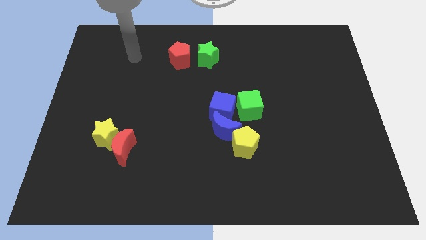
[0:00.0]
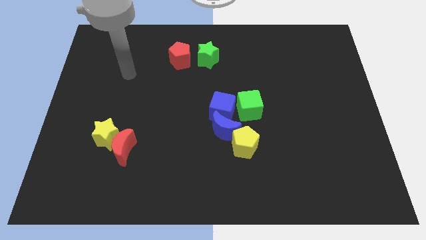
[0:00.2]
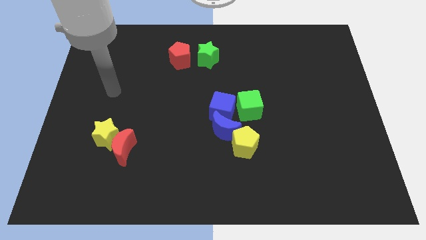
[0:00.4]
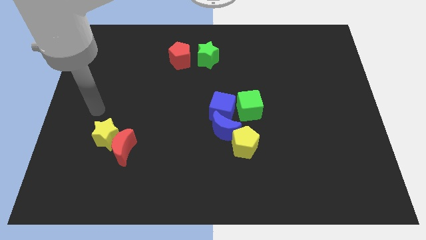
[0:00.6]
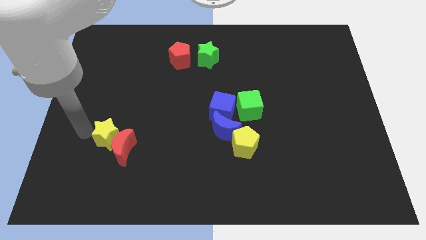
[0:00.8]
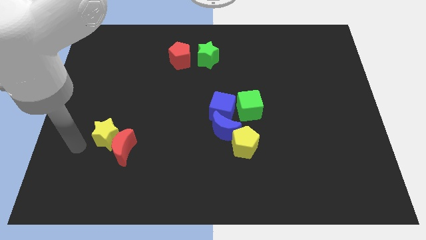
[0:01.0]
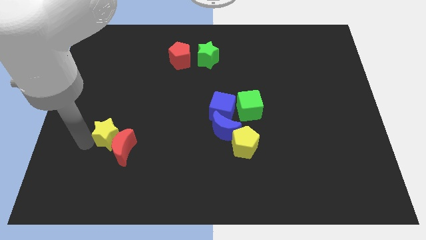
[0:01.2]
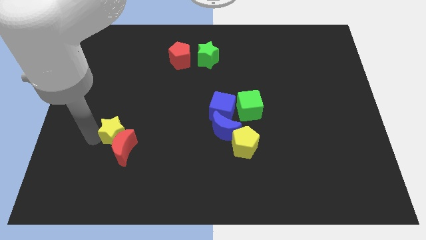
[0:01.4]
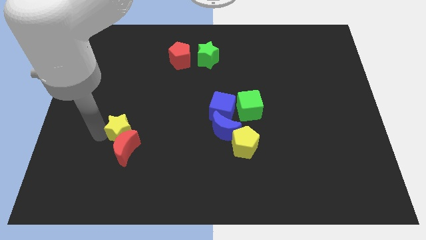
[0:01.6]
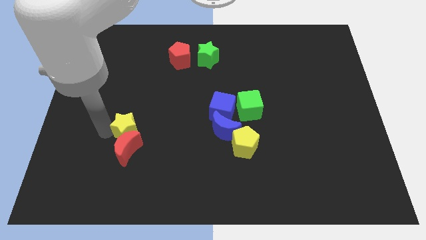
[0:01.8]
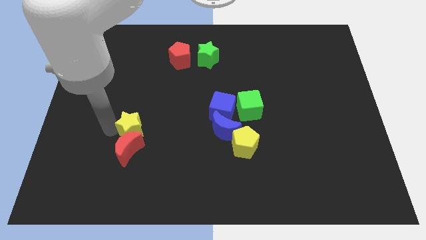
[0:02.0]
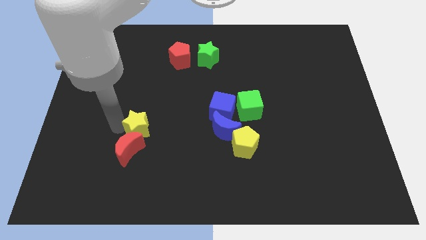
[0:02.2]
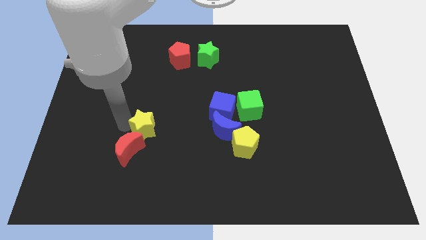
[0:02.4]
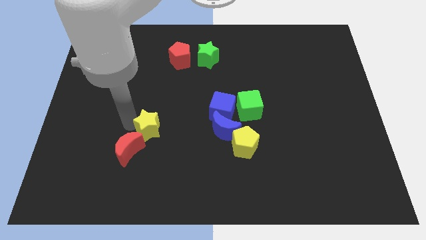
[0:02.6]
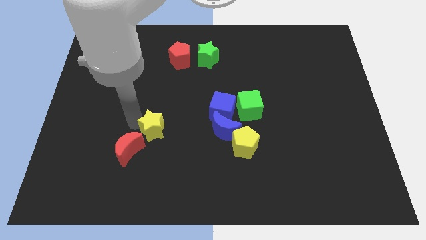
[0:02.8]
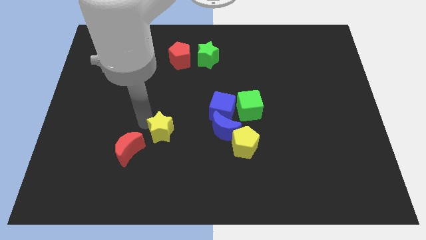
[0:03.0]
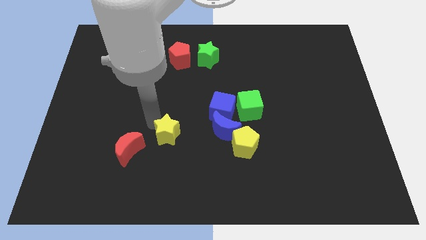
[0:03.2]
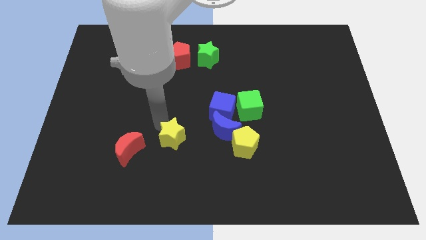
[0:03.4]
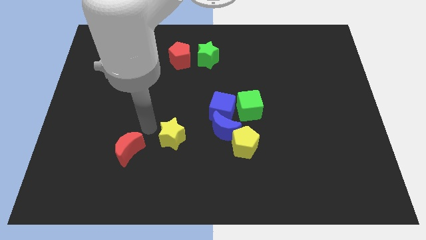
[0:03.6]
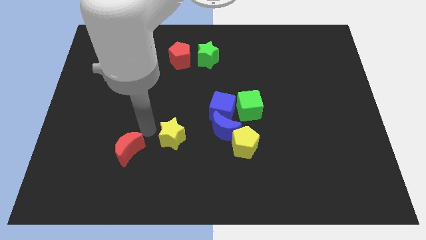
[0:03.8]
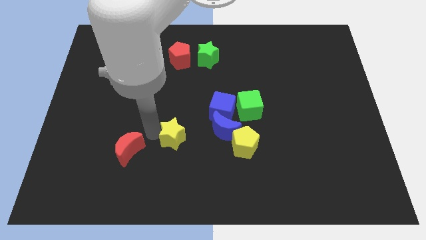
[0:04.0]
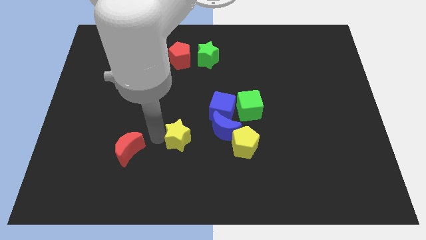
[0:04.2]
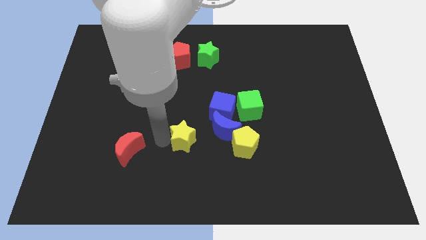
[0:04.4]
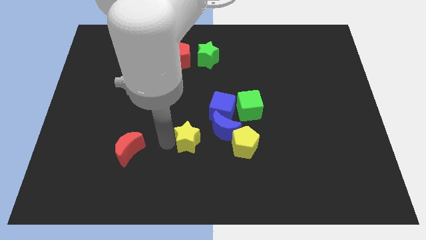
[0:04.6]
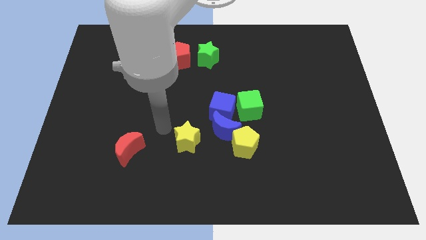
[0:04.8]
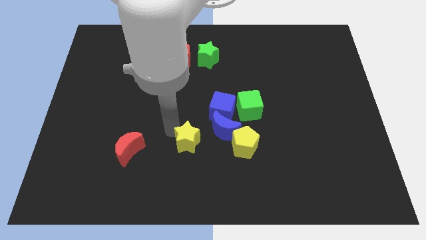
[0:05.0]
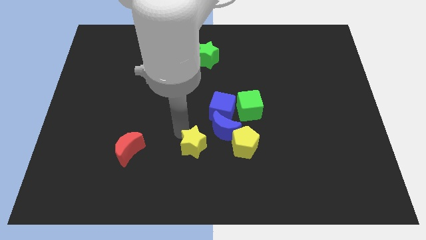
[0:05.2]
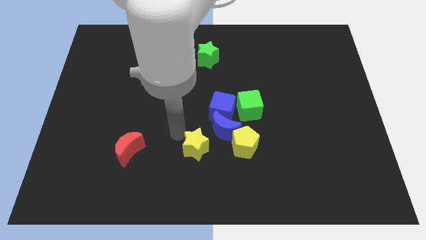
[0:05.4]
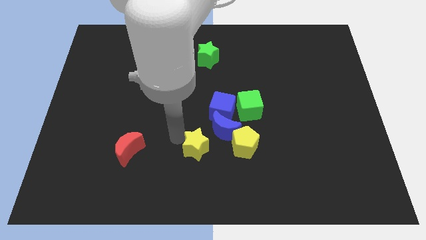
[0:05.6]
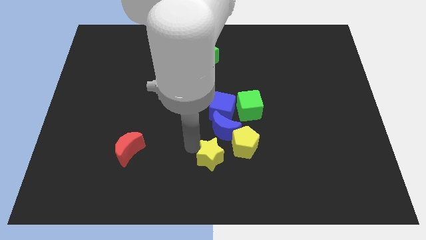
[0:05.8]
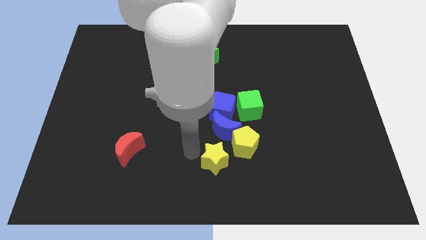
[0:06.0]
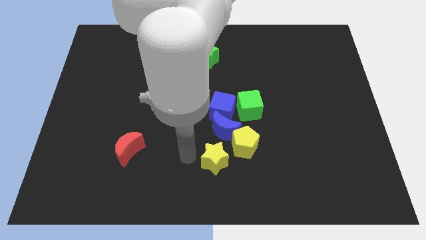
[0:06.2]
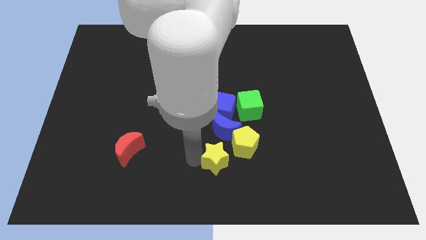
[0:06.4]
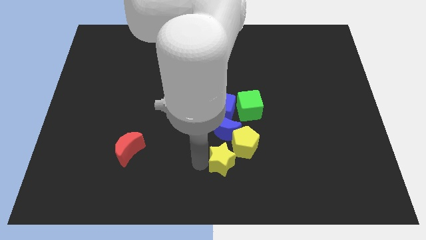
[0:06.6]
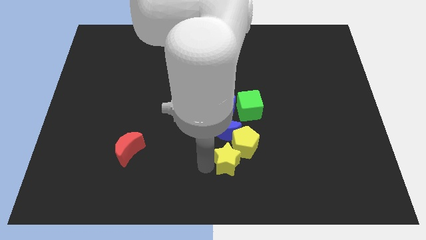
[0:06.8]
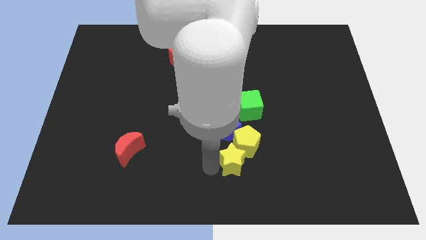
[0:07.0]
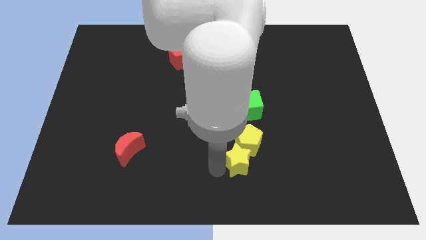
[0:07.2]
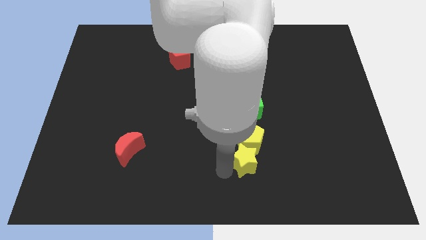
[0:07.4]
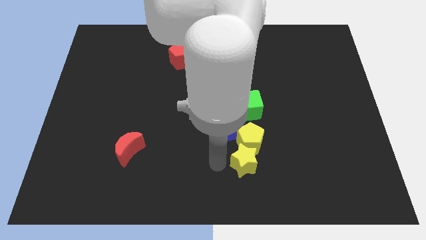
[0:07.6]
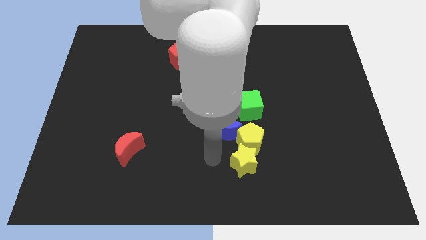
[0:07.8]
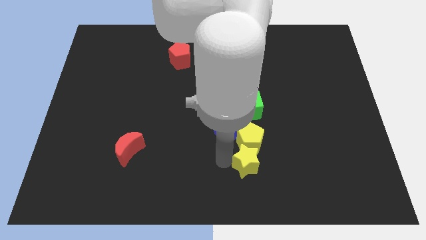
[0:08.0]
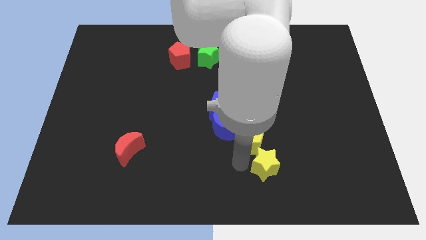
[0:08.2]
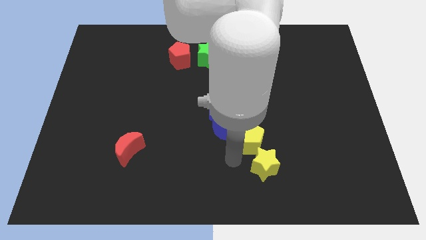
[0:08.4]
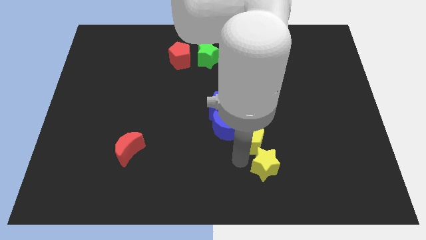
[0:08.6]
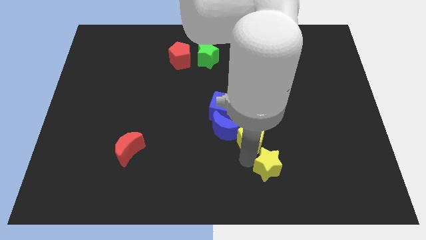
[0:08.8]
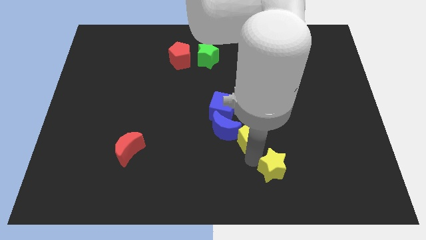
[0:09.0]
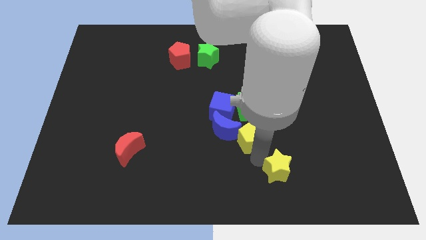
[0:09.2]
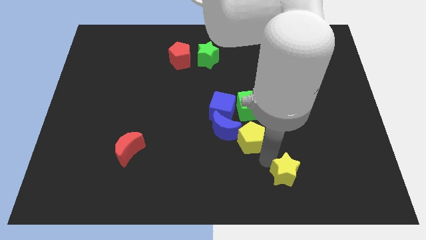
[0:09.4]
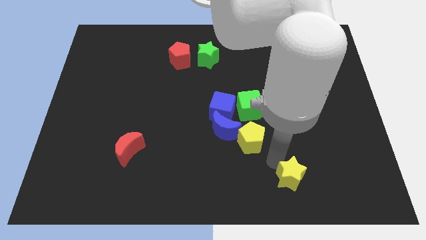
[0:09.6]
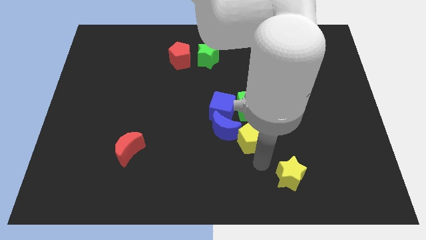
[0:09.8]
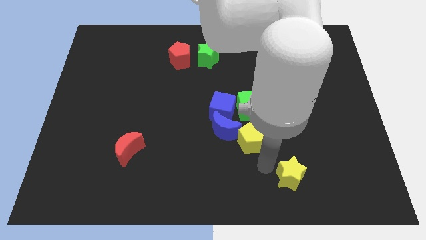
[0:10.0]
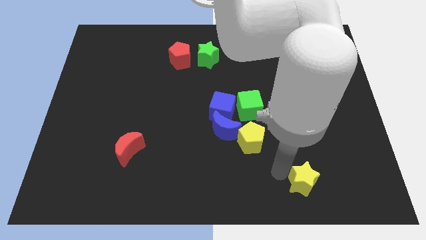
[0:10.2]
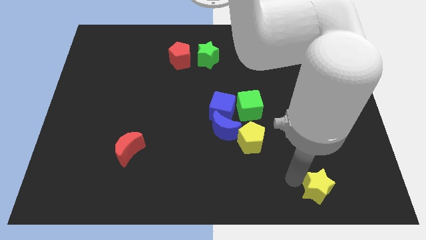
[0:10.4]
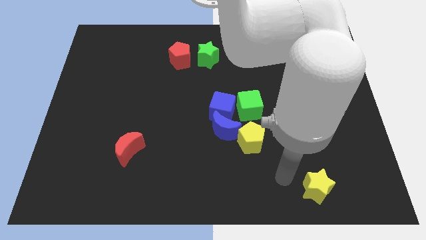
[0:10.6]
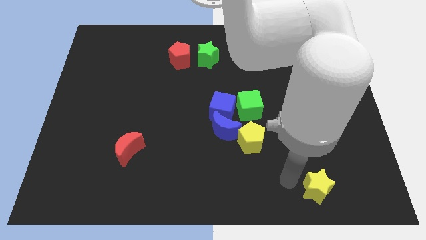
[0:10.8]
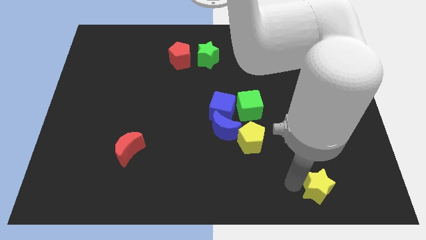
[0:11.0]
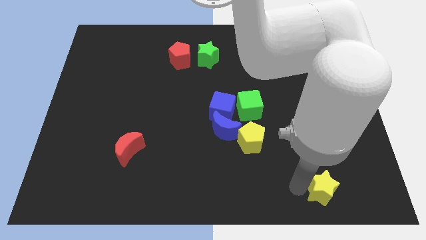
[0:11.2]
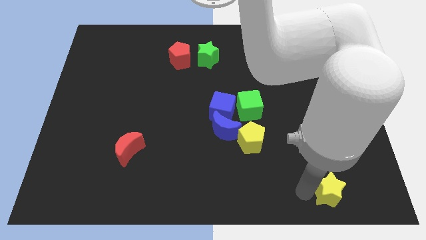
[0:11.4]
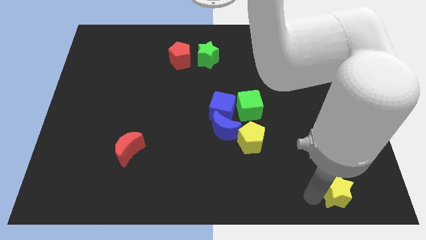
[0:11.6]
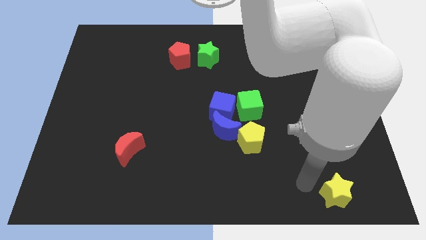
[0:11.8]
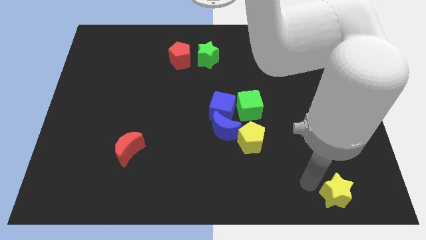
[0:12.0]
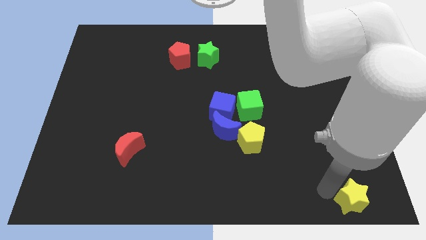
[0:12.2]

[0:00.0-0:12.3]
put the yellow star to the bottom right of the board

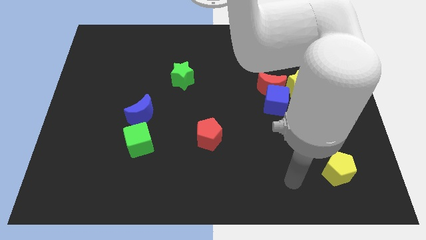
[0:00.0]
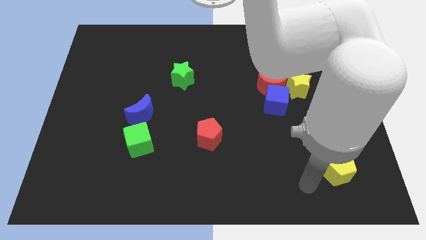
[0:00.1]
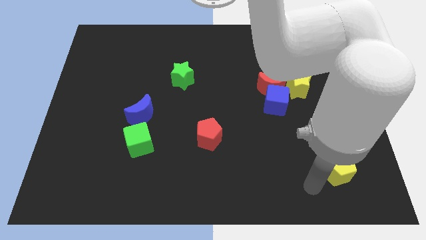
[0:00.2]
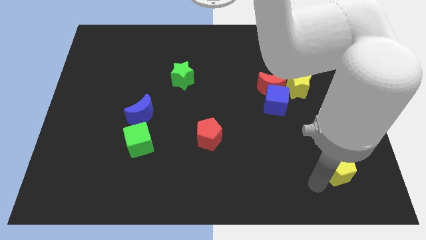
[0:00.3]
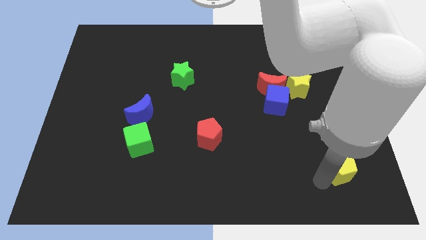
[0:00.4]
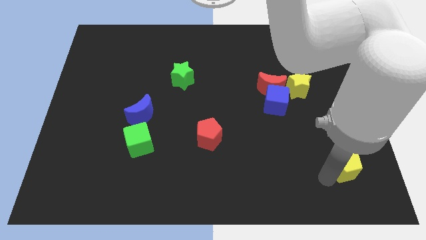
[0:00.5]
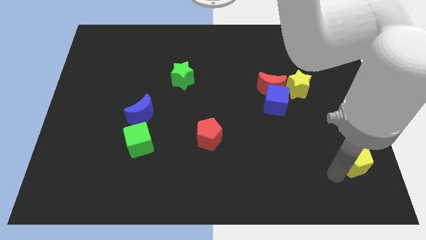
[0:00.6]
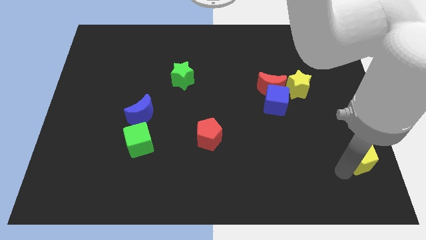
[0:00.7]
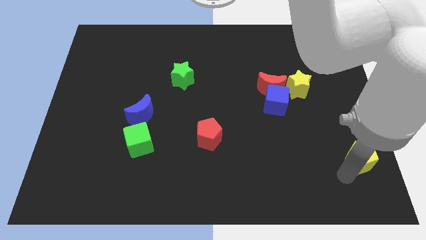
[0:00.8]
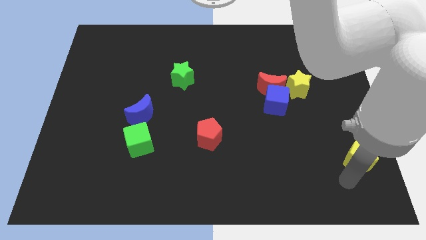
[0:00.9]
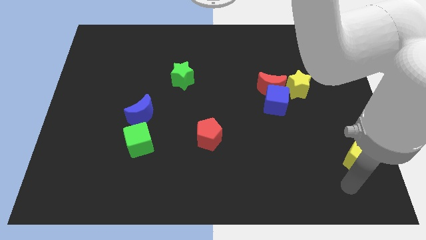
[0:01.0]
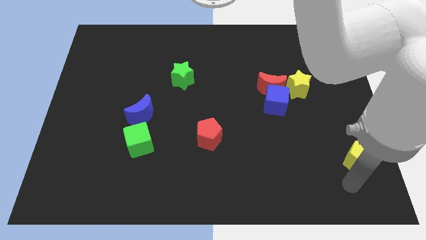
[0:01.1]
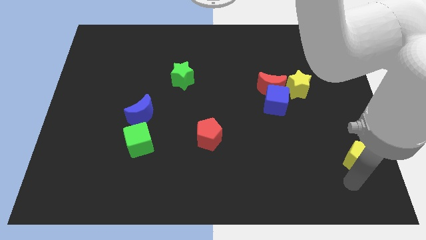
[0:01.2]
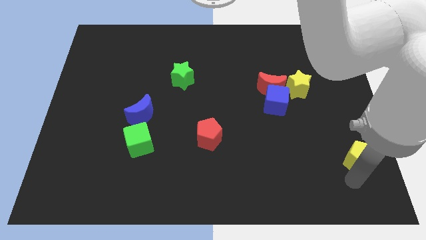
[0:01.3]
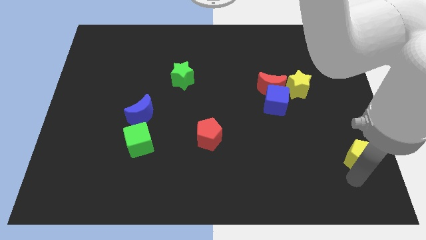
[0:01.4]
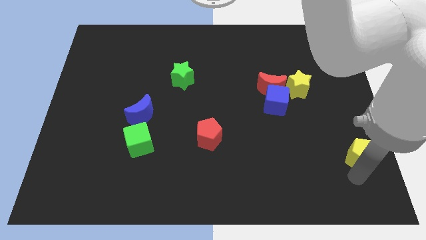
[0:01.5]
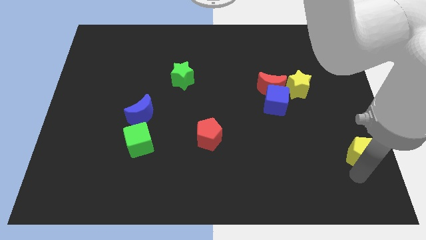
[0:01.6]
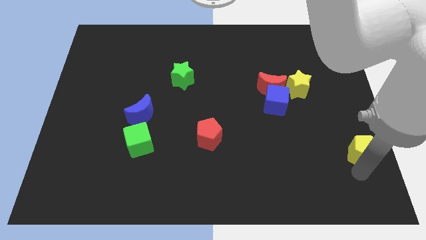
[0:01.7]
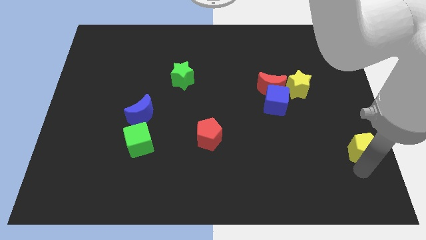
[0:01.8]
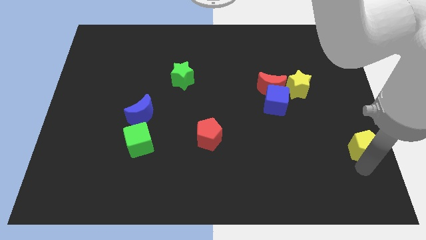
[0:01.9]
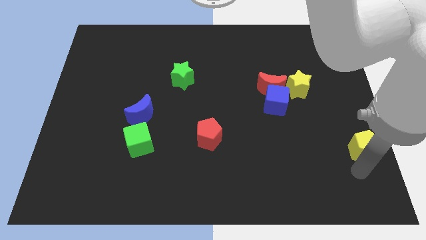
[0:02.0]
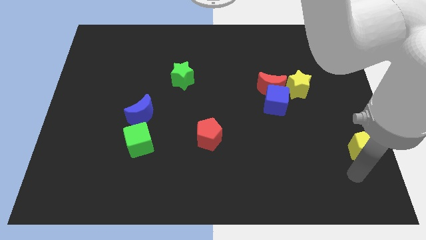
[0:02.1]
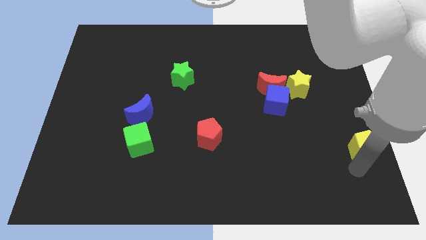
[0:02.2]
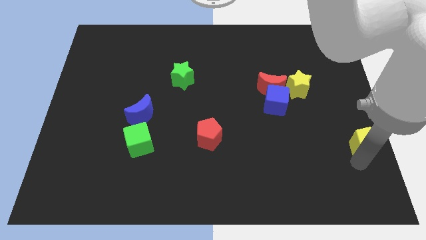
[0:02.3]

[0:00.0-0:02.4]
move the yellow pentagon to the center right
